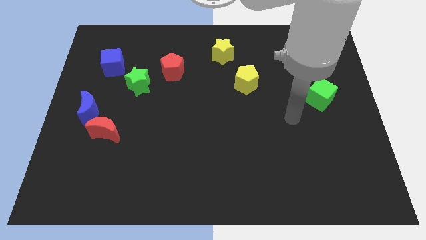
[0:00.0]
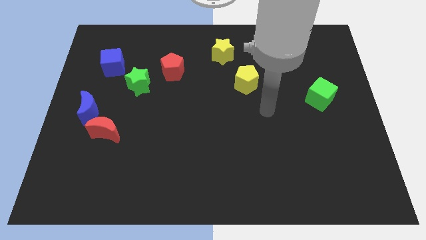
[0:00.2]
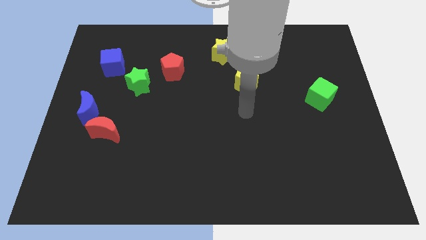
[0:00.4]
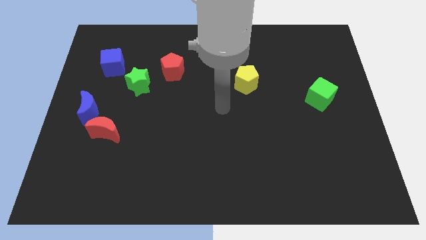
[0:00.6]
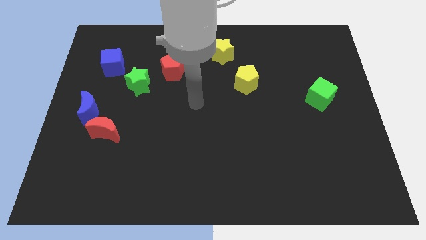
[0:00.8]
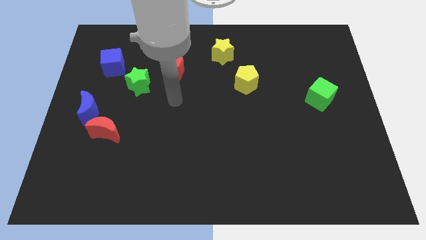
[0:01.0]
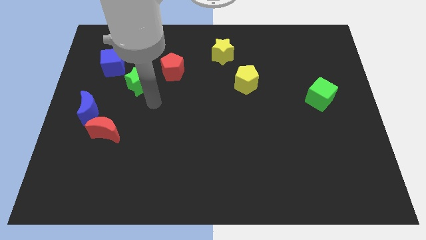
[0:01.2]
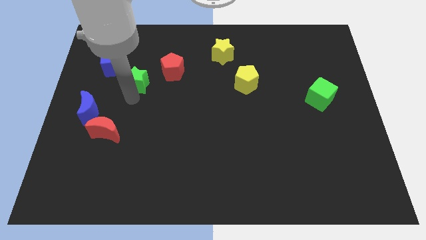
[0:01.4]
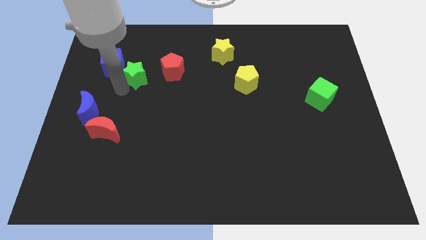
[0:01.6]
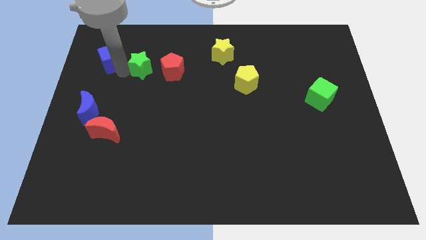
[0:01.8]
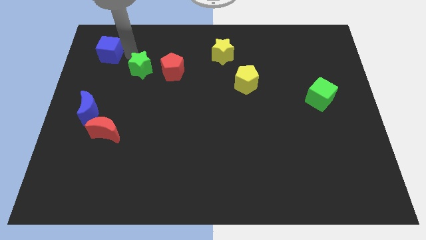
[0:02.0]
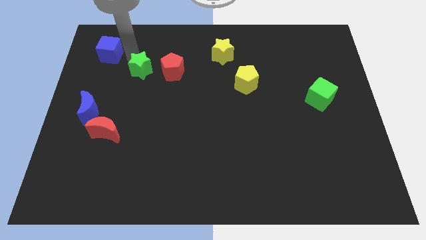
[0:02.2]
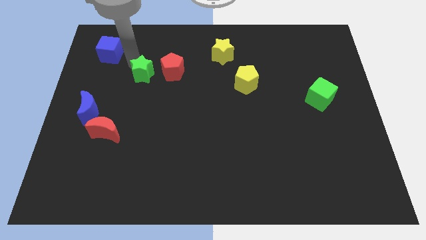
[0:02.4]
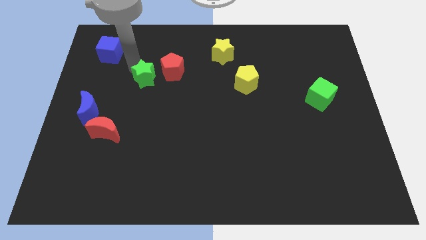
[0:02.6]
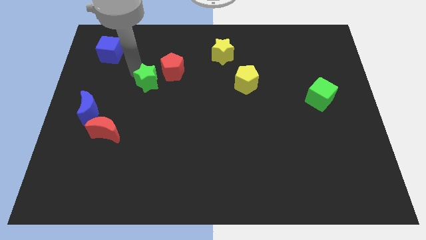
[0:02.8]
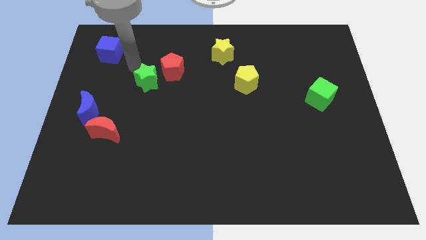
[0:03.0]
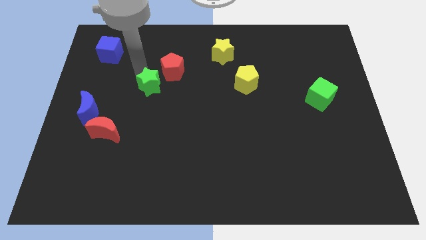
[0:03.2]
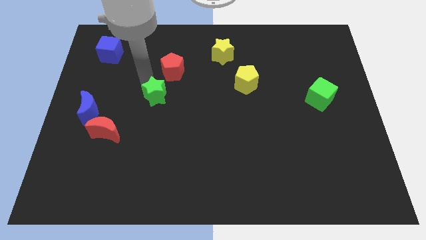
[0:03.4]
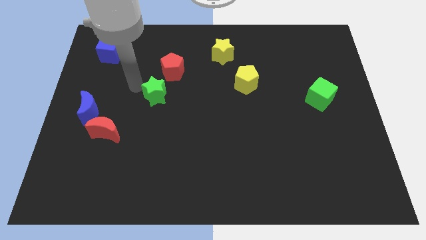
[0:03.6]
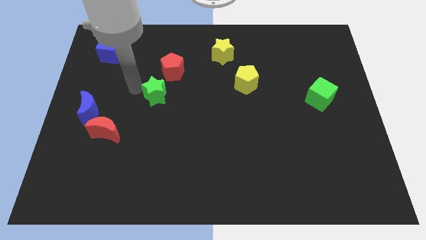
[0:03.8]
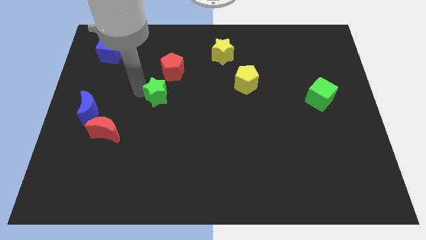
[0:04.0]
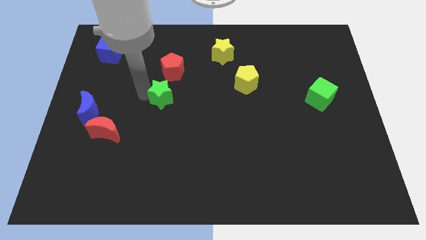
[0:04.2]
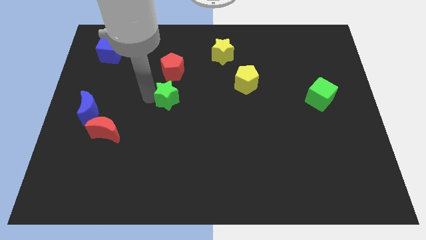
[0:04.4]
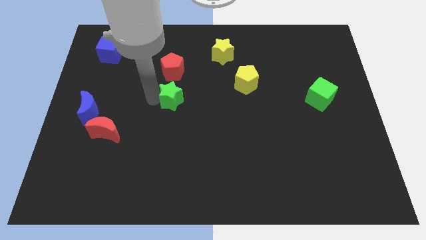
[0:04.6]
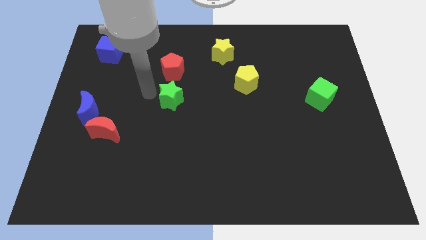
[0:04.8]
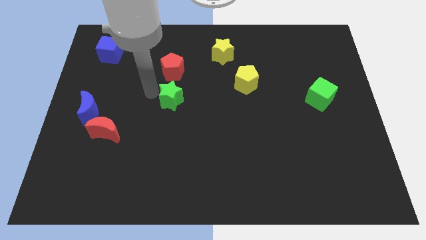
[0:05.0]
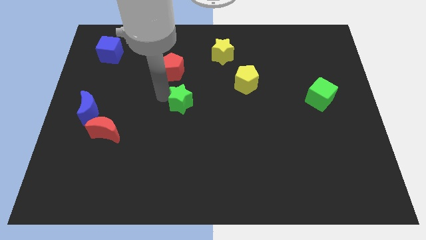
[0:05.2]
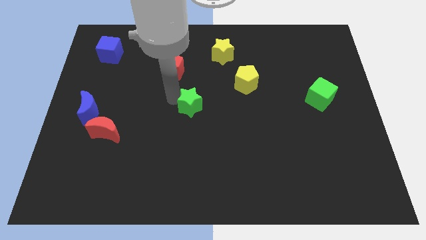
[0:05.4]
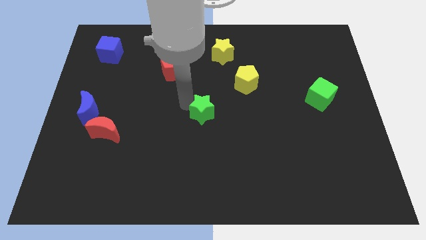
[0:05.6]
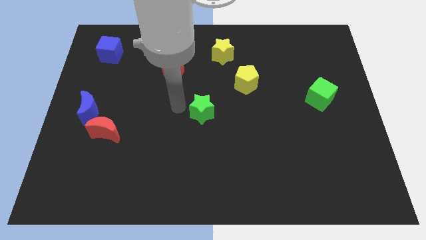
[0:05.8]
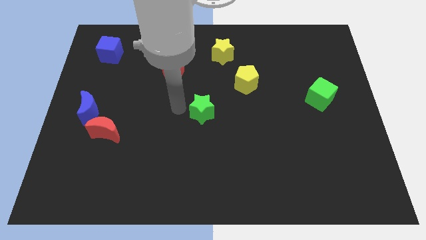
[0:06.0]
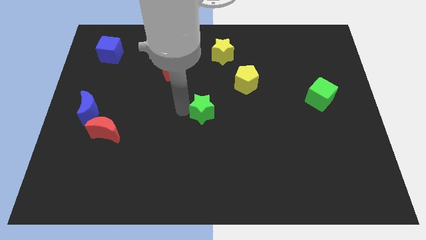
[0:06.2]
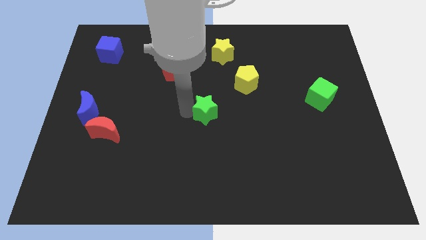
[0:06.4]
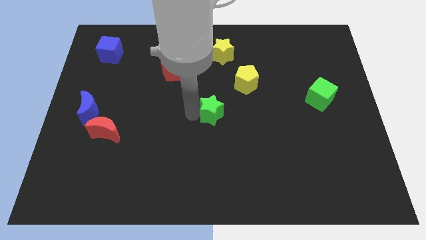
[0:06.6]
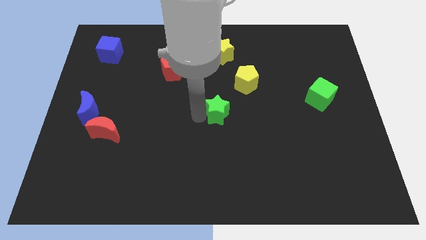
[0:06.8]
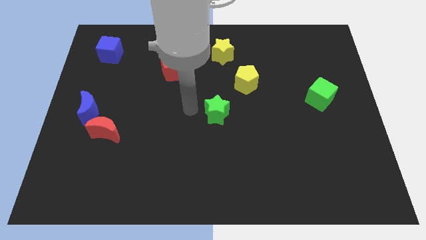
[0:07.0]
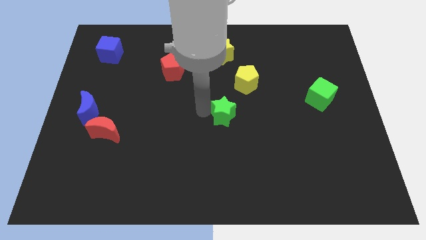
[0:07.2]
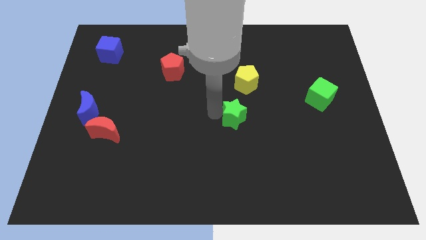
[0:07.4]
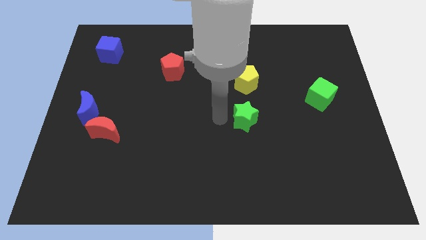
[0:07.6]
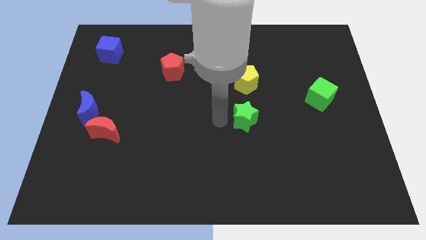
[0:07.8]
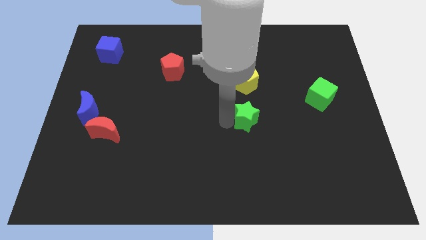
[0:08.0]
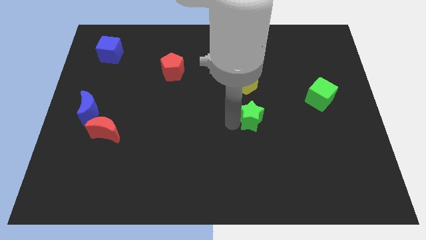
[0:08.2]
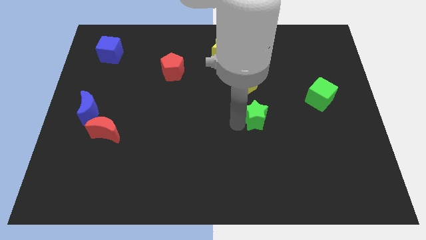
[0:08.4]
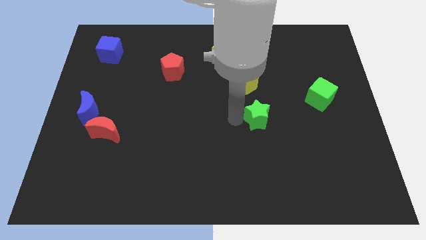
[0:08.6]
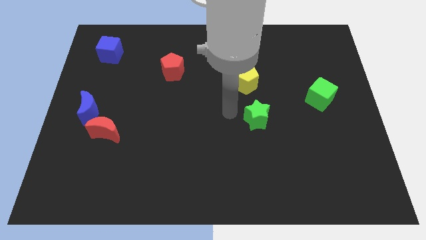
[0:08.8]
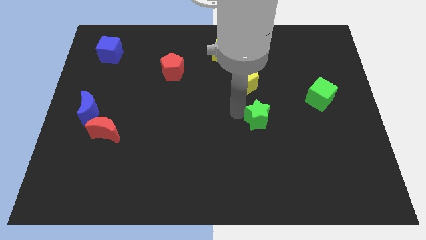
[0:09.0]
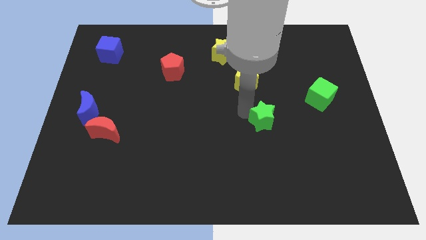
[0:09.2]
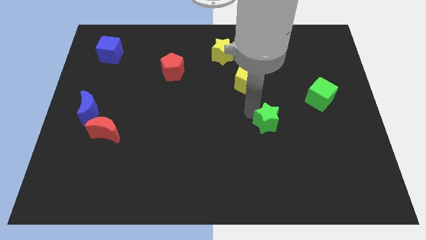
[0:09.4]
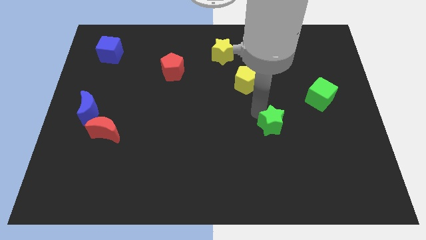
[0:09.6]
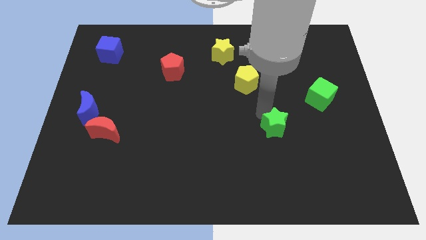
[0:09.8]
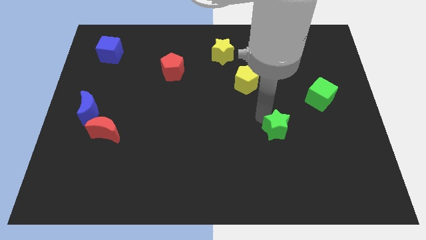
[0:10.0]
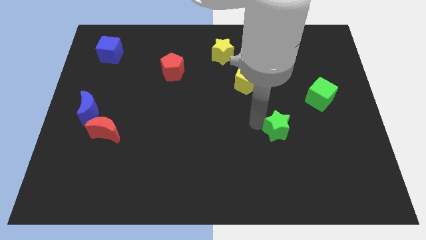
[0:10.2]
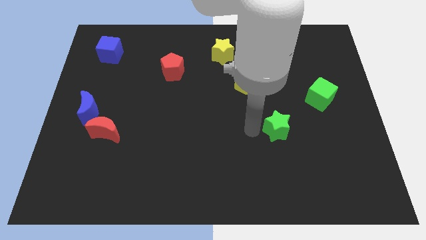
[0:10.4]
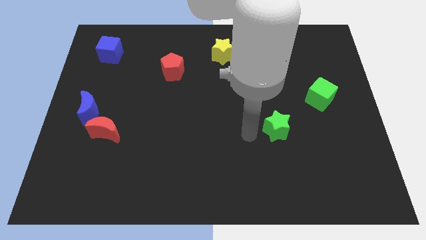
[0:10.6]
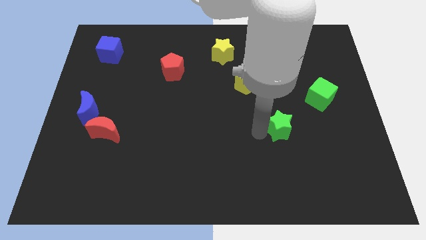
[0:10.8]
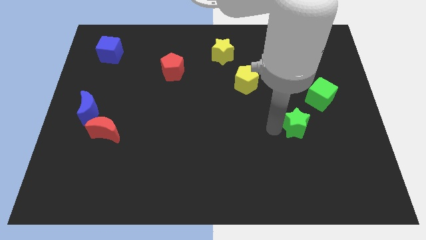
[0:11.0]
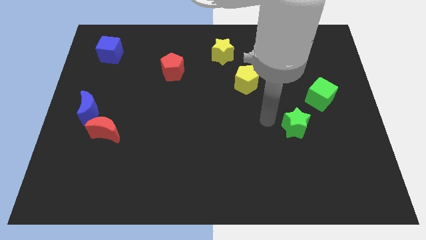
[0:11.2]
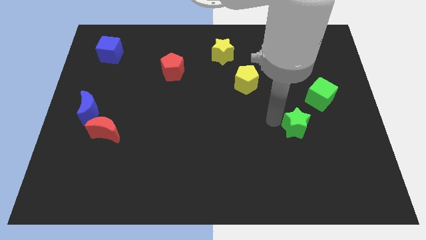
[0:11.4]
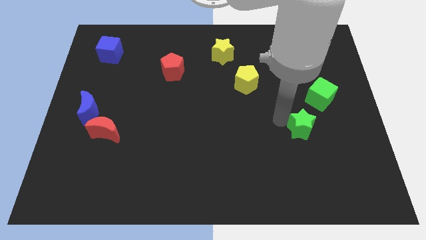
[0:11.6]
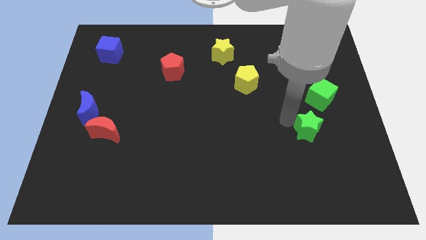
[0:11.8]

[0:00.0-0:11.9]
slide the green star to the bottom side of the green cube

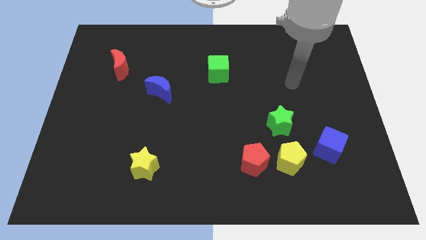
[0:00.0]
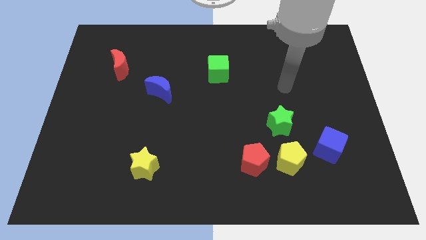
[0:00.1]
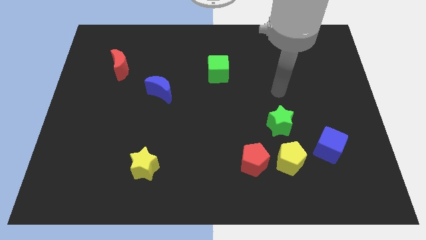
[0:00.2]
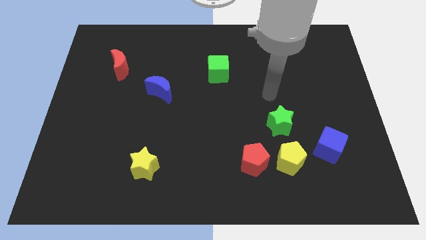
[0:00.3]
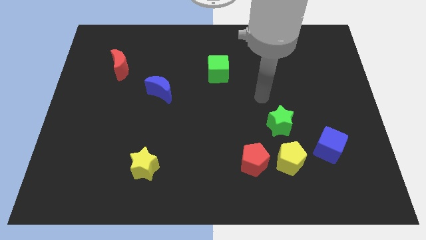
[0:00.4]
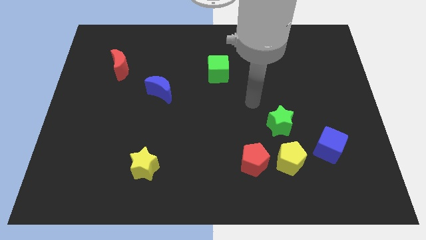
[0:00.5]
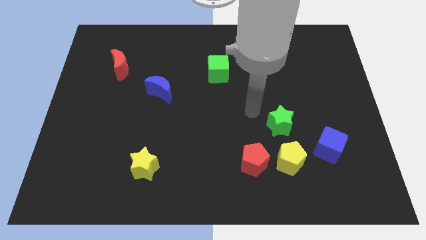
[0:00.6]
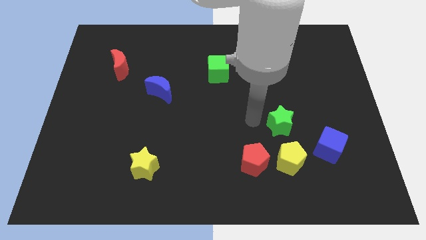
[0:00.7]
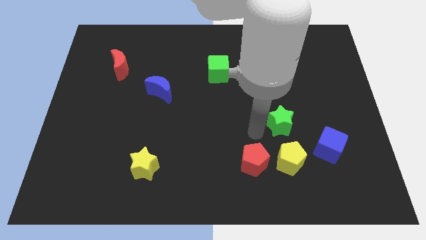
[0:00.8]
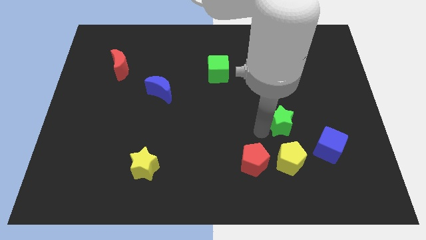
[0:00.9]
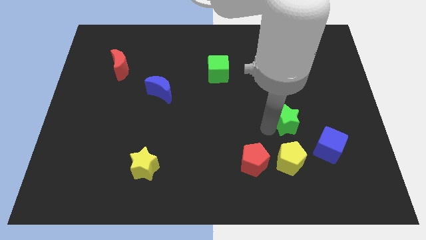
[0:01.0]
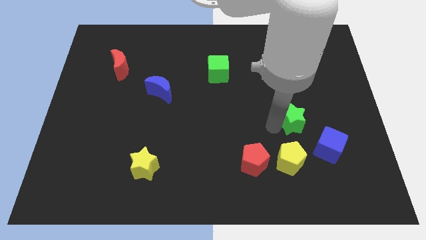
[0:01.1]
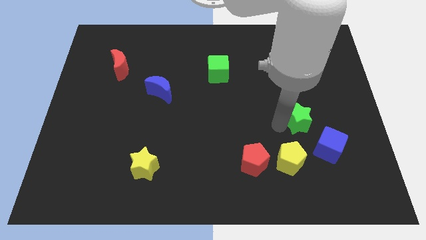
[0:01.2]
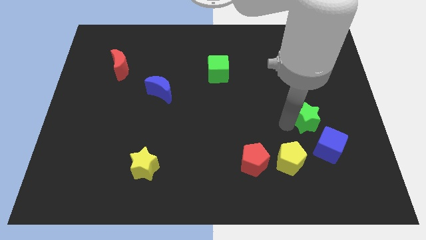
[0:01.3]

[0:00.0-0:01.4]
push the green star to the top of the blue cube
